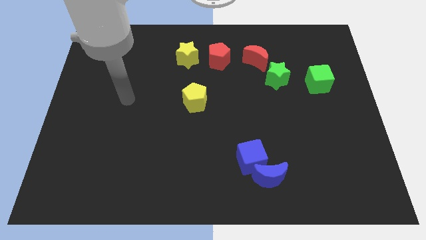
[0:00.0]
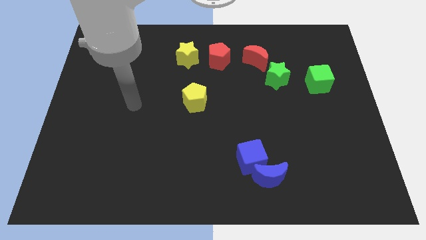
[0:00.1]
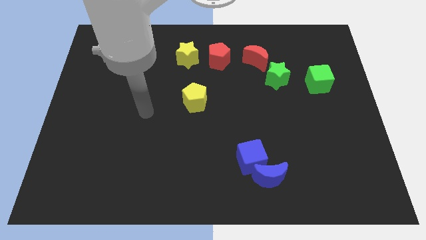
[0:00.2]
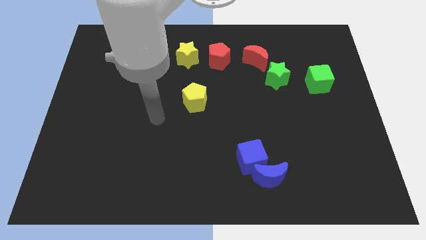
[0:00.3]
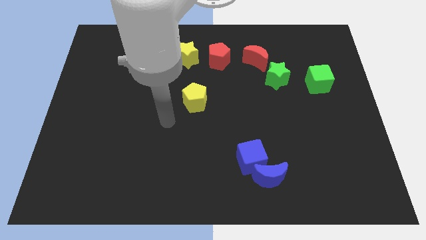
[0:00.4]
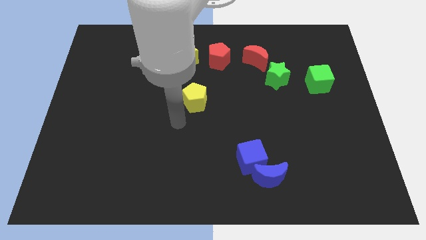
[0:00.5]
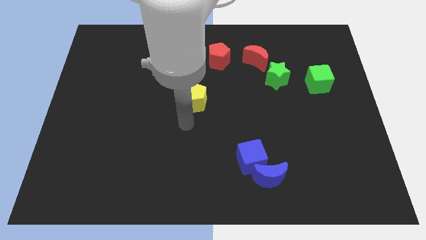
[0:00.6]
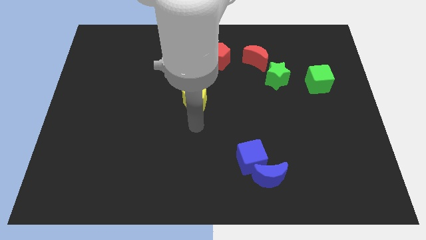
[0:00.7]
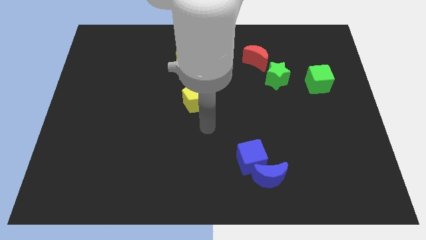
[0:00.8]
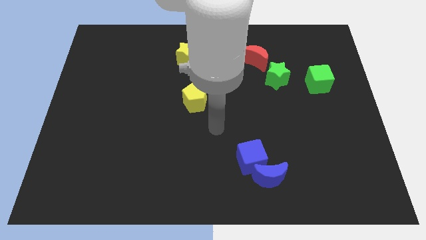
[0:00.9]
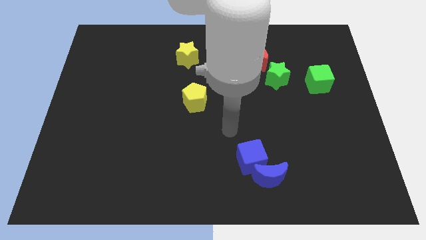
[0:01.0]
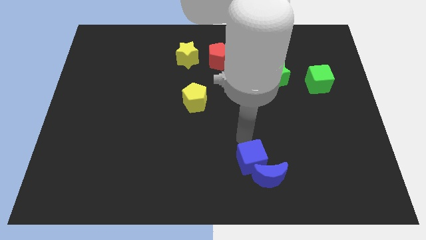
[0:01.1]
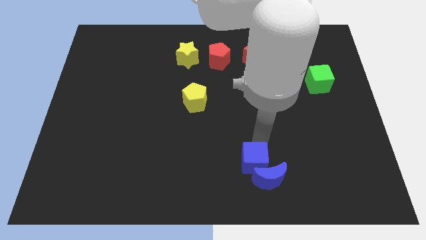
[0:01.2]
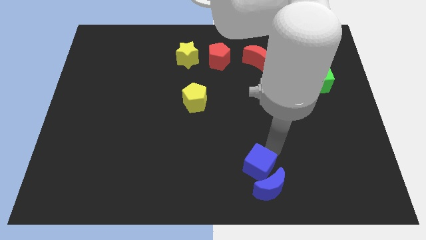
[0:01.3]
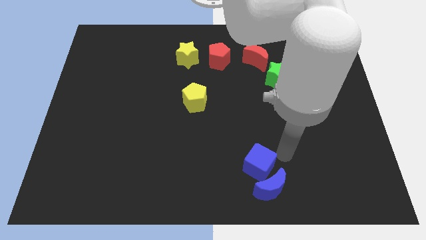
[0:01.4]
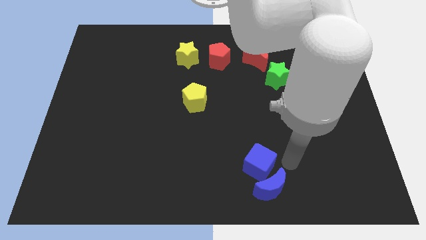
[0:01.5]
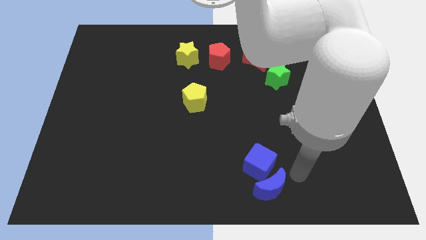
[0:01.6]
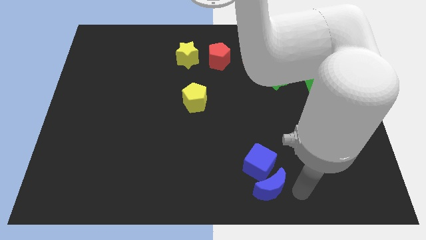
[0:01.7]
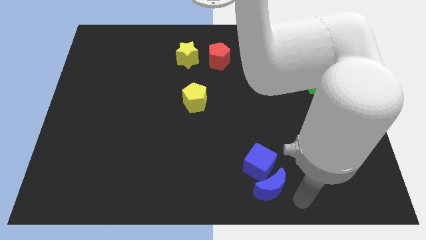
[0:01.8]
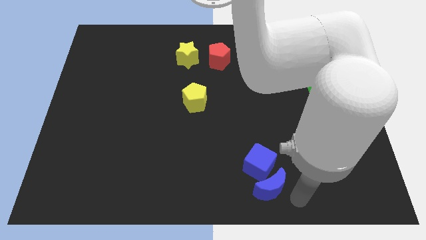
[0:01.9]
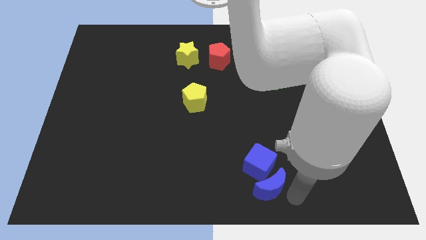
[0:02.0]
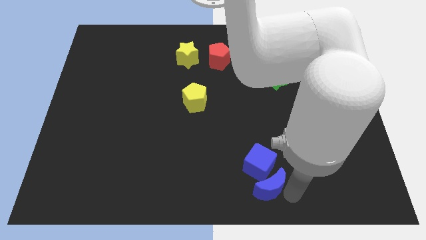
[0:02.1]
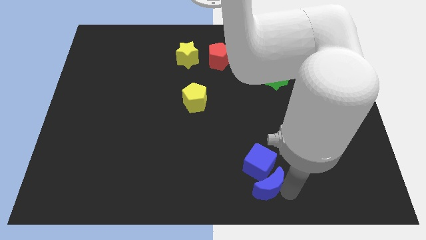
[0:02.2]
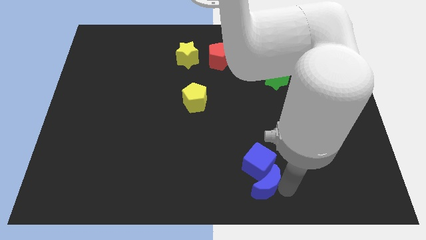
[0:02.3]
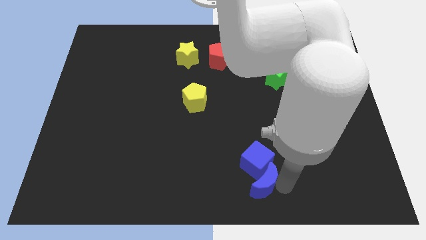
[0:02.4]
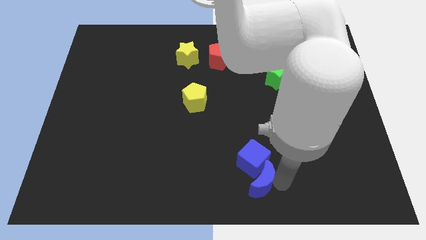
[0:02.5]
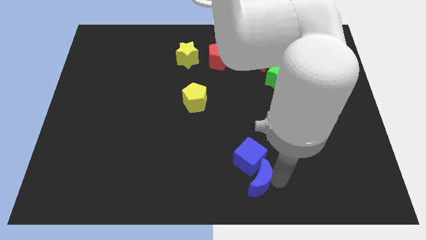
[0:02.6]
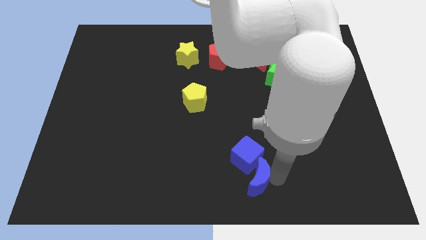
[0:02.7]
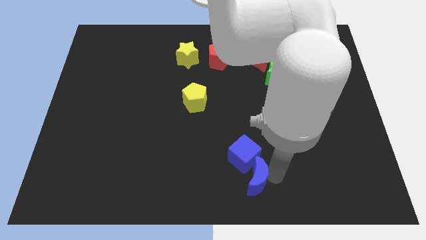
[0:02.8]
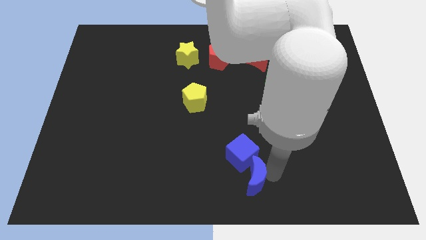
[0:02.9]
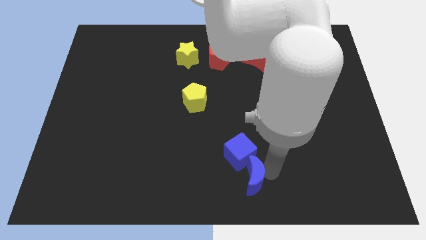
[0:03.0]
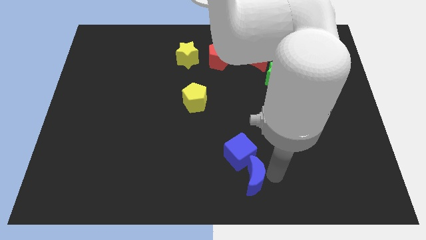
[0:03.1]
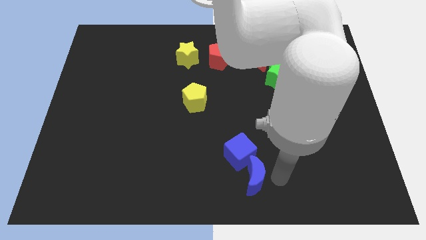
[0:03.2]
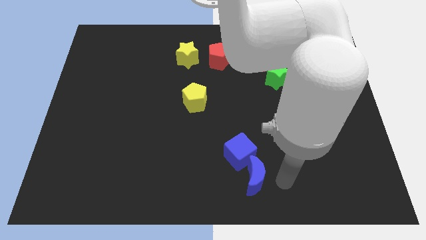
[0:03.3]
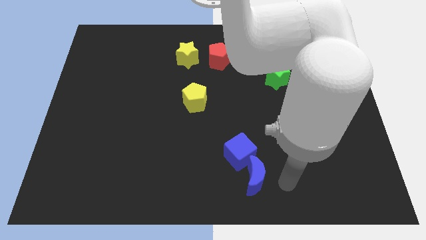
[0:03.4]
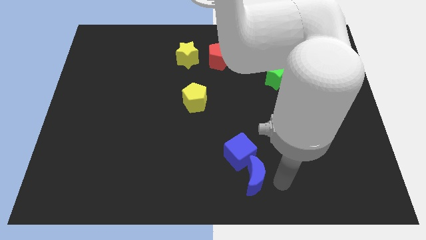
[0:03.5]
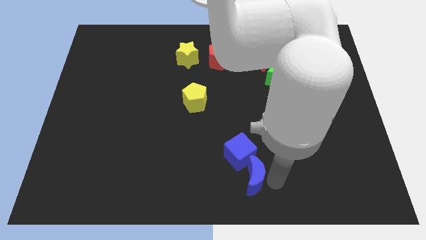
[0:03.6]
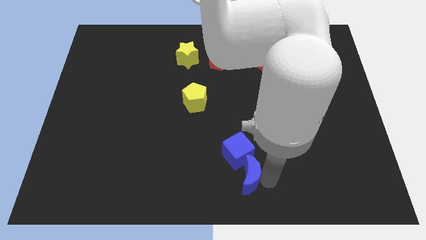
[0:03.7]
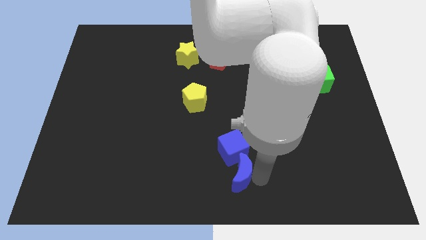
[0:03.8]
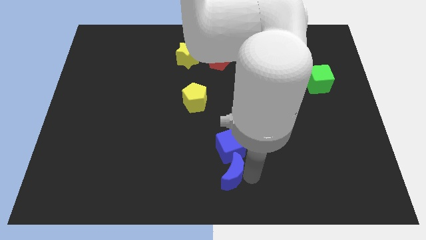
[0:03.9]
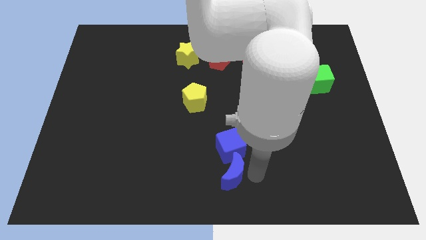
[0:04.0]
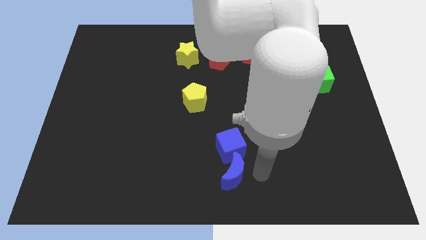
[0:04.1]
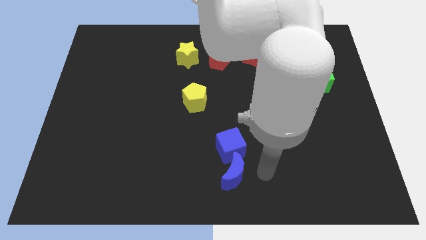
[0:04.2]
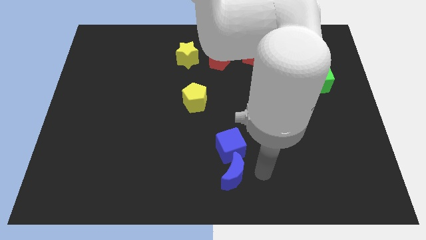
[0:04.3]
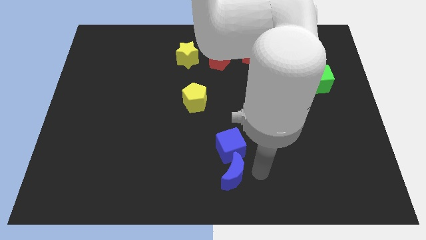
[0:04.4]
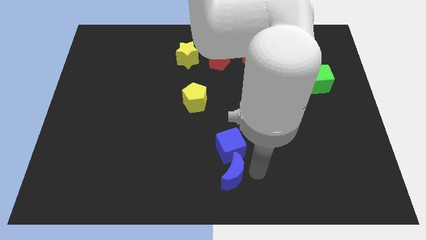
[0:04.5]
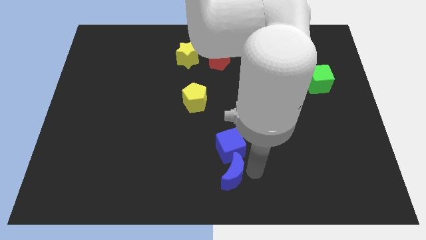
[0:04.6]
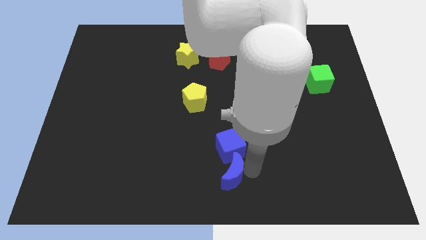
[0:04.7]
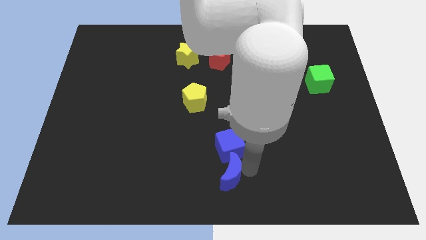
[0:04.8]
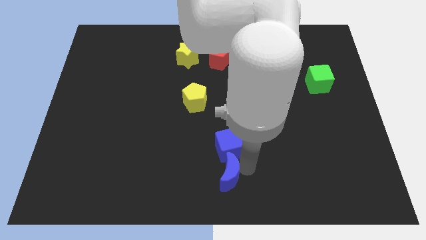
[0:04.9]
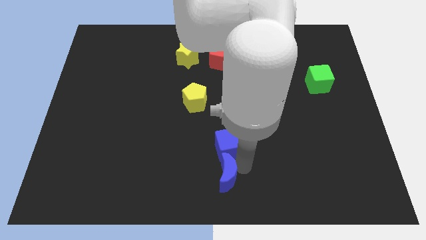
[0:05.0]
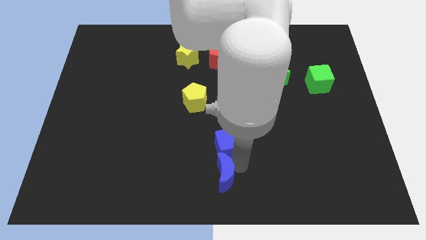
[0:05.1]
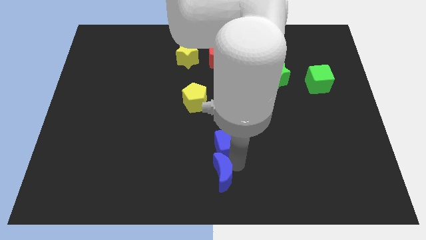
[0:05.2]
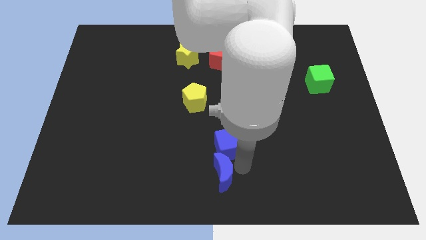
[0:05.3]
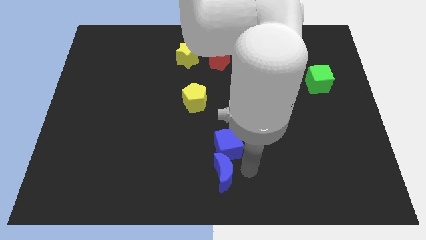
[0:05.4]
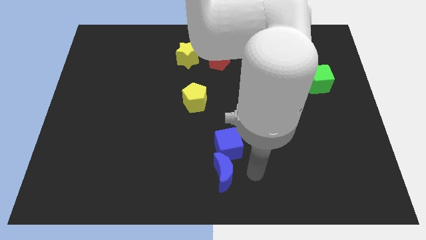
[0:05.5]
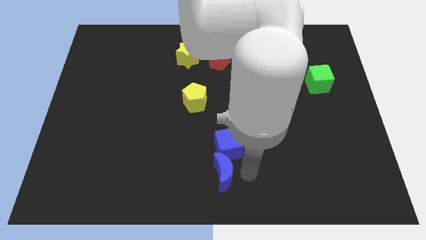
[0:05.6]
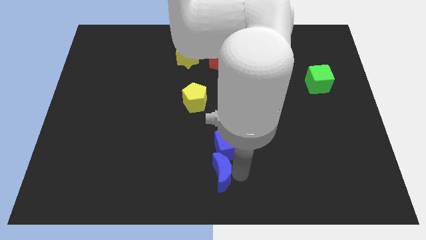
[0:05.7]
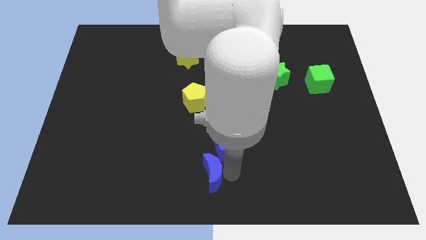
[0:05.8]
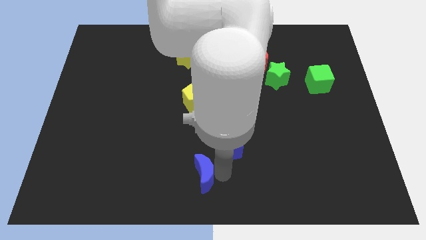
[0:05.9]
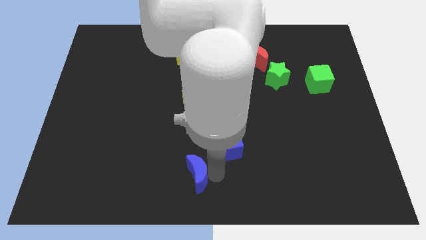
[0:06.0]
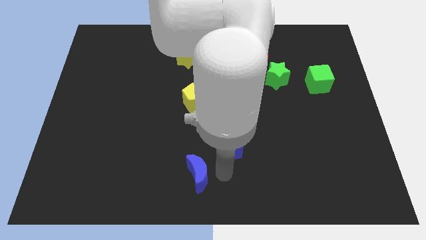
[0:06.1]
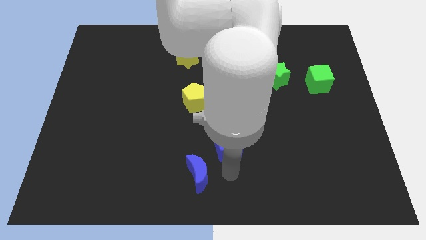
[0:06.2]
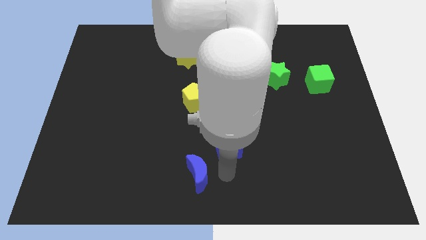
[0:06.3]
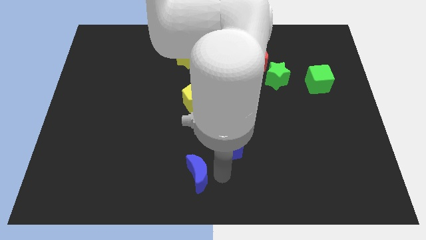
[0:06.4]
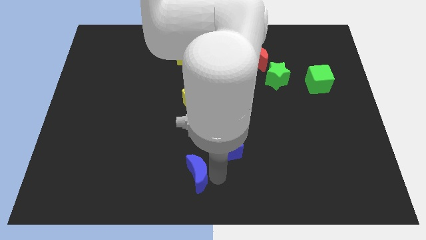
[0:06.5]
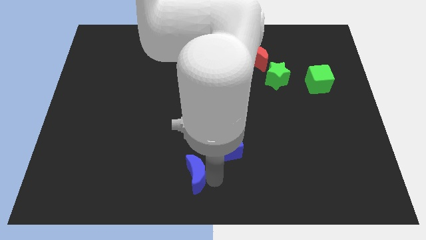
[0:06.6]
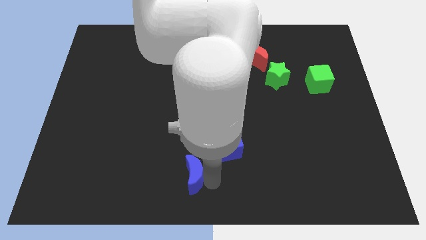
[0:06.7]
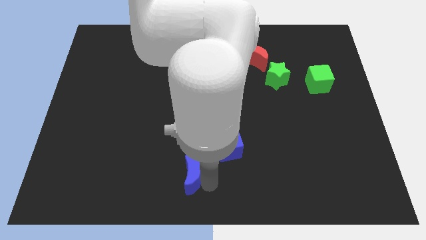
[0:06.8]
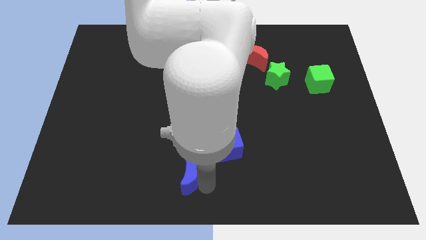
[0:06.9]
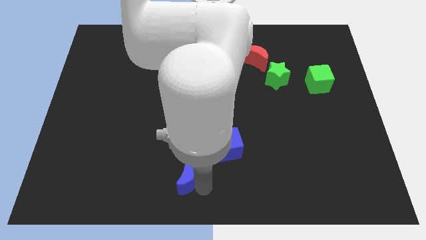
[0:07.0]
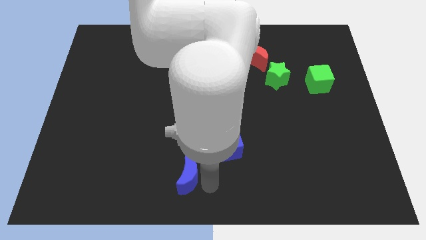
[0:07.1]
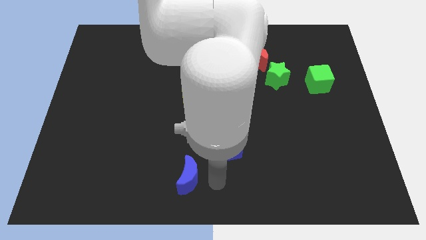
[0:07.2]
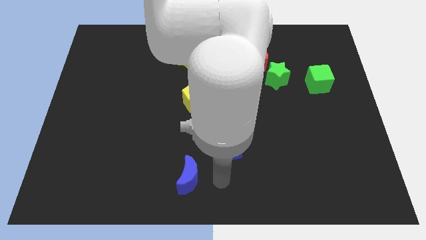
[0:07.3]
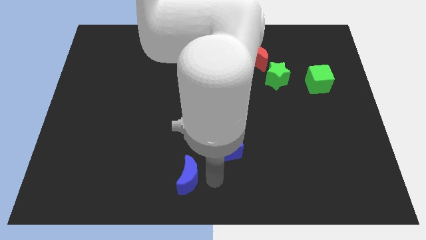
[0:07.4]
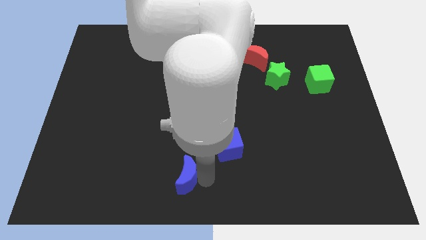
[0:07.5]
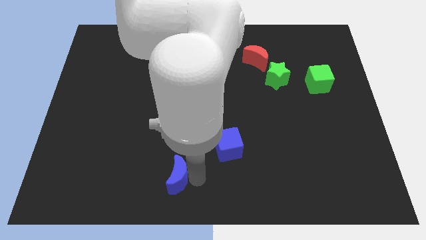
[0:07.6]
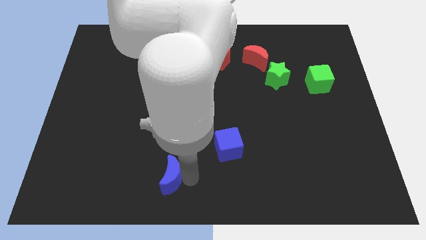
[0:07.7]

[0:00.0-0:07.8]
slide the blue moon to the left

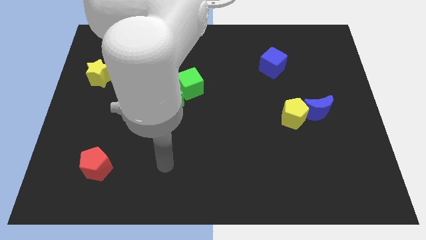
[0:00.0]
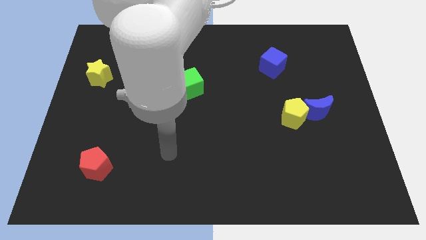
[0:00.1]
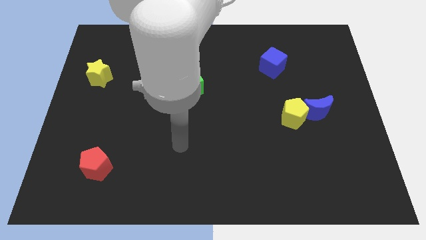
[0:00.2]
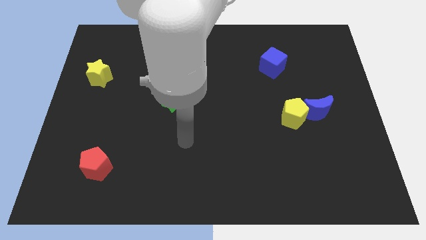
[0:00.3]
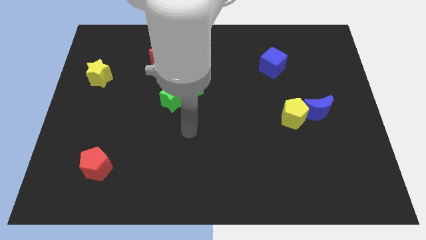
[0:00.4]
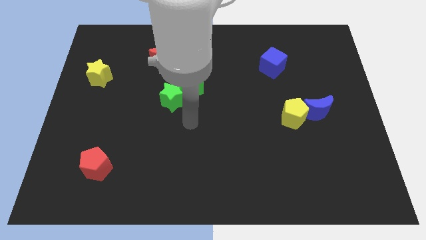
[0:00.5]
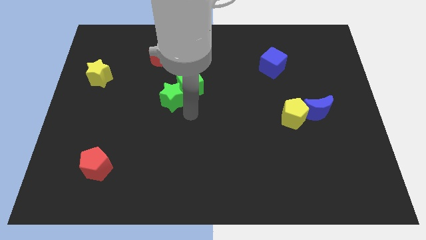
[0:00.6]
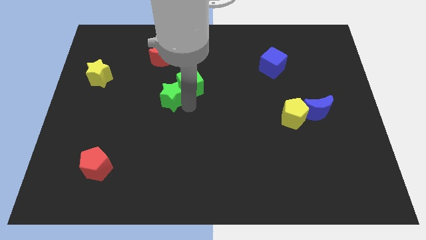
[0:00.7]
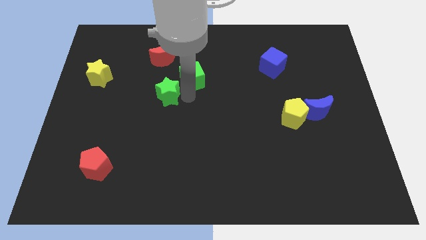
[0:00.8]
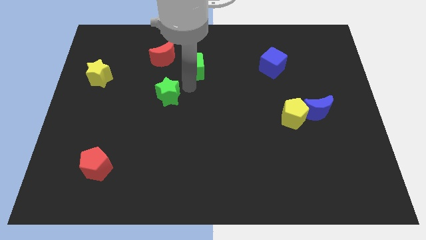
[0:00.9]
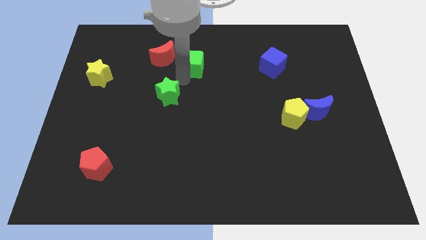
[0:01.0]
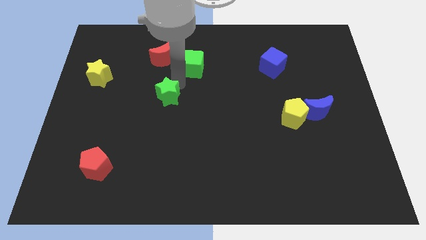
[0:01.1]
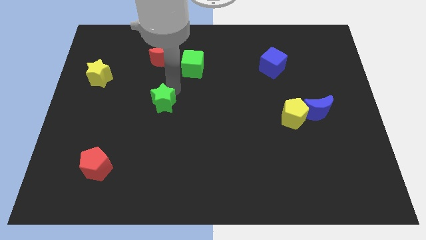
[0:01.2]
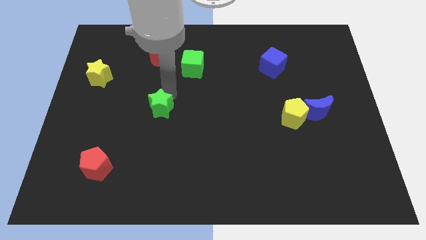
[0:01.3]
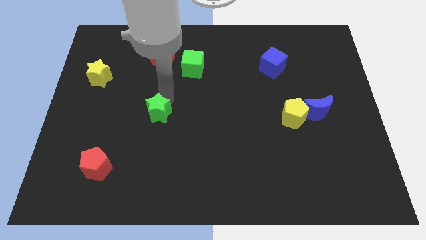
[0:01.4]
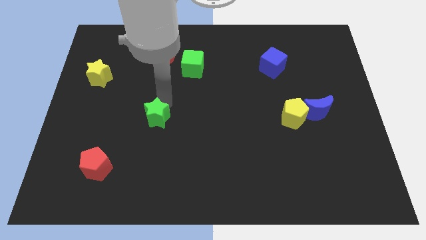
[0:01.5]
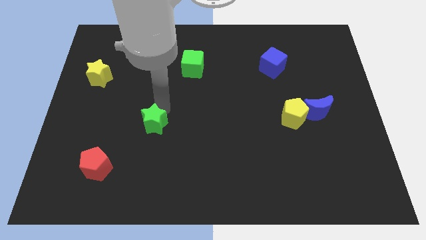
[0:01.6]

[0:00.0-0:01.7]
slide the green star slightly down and left
